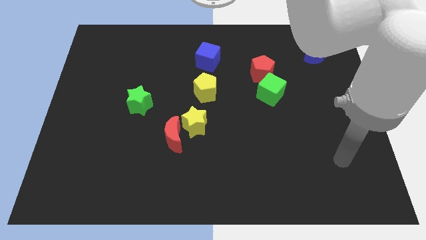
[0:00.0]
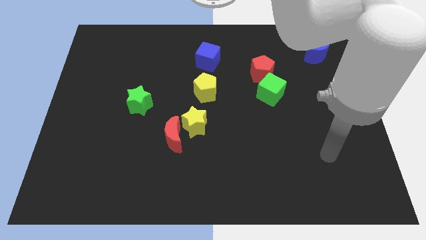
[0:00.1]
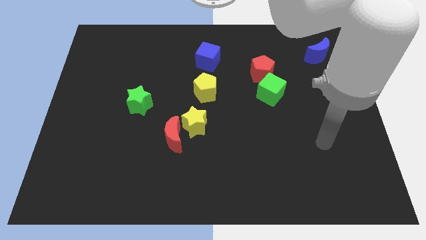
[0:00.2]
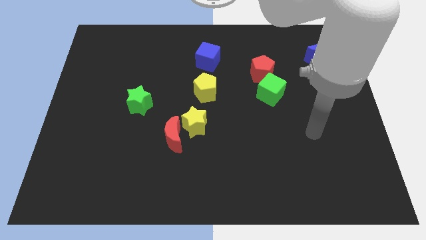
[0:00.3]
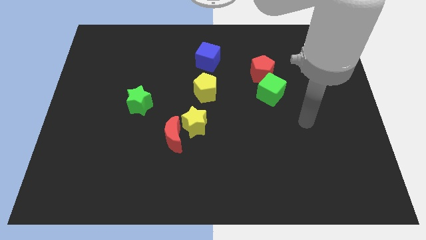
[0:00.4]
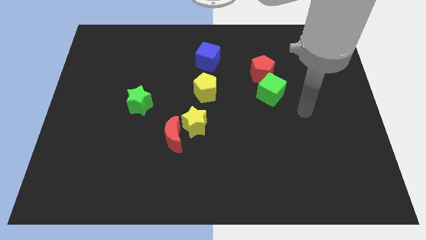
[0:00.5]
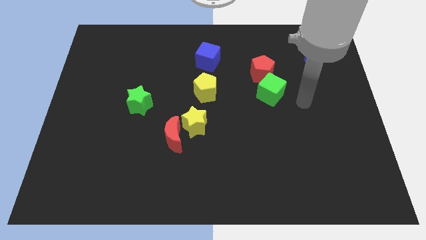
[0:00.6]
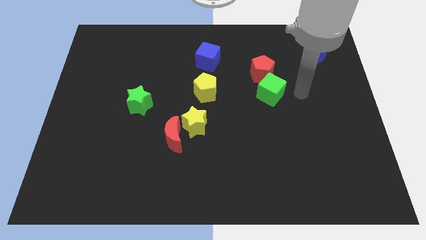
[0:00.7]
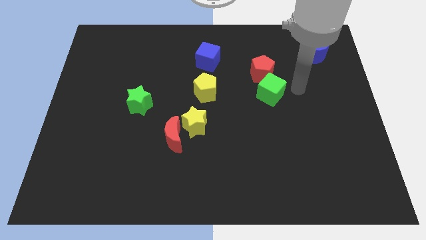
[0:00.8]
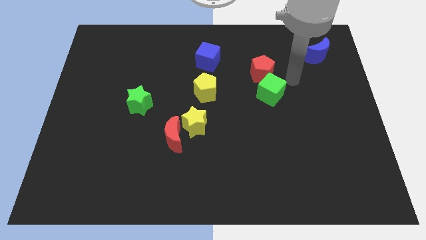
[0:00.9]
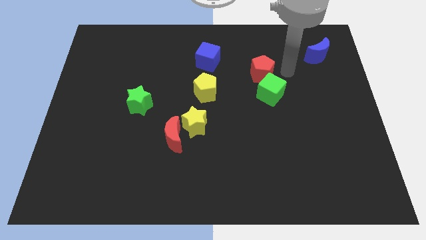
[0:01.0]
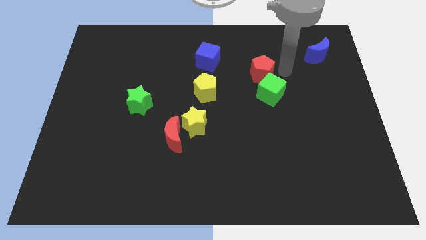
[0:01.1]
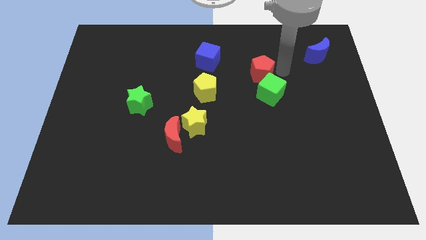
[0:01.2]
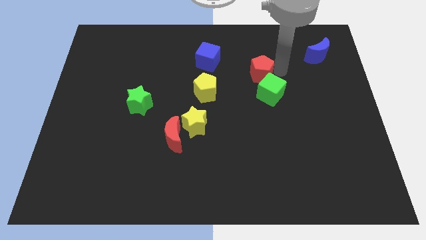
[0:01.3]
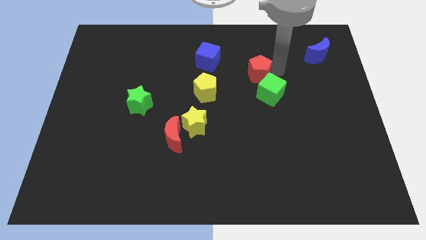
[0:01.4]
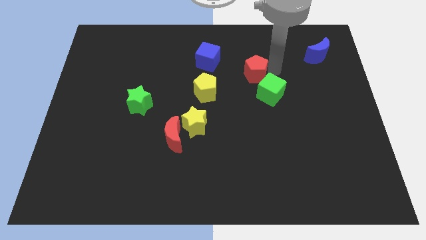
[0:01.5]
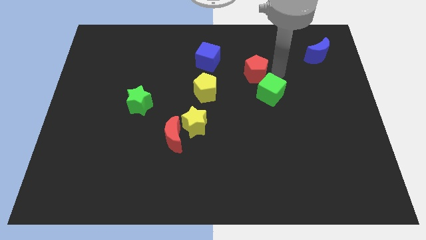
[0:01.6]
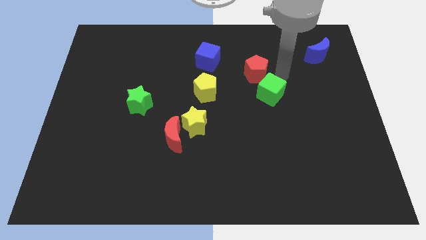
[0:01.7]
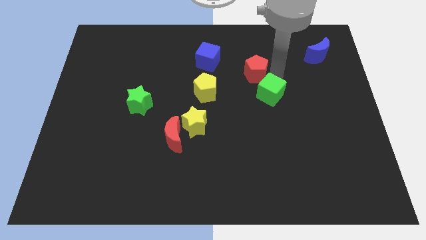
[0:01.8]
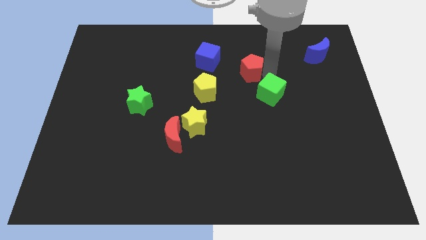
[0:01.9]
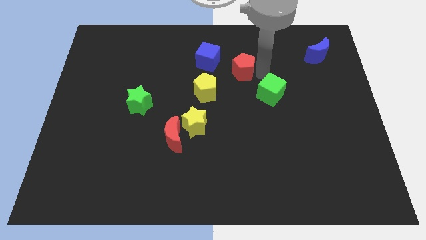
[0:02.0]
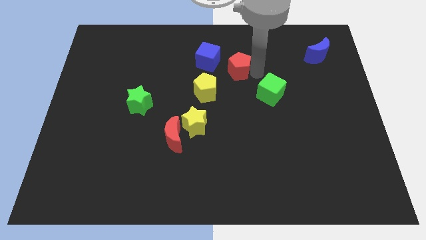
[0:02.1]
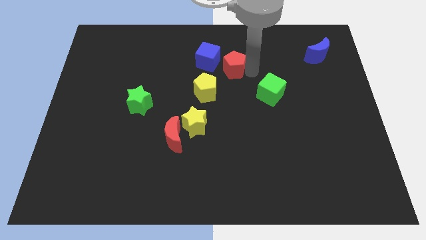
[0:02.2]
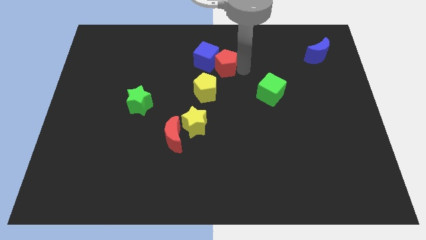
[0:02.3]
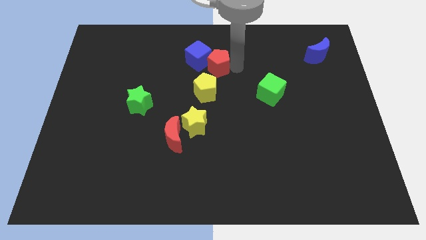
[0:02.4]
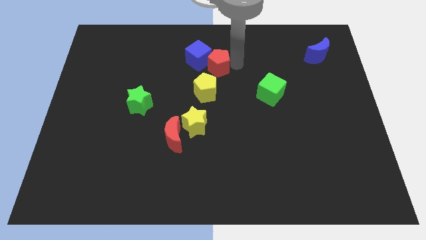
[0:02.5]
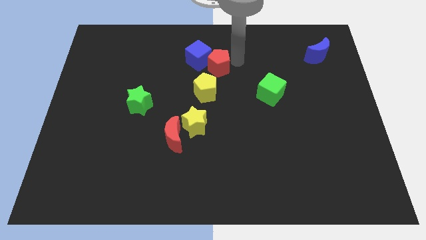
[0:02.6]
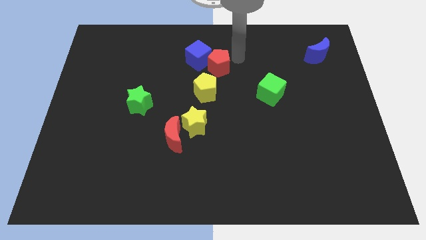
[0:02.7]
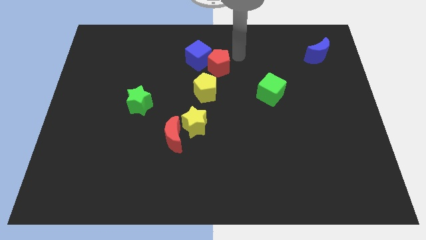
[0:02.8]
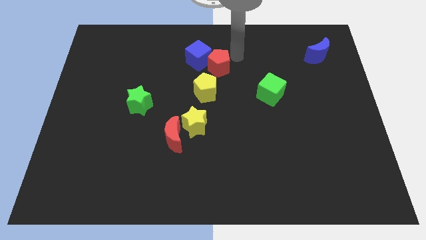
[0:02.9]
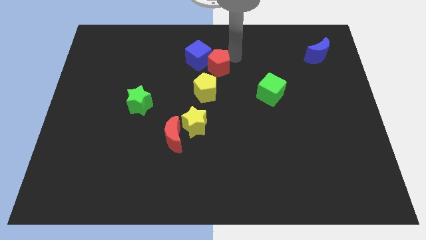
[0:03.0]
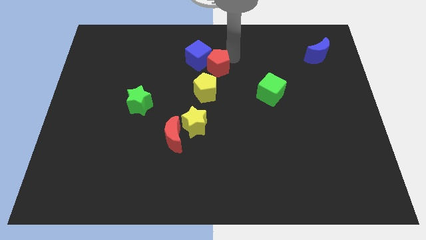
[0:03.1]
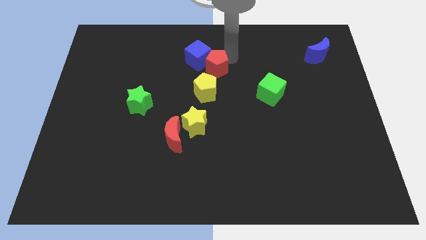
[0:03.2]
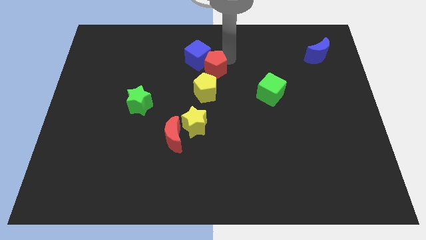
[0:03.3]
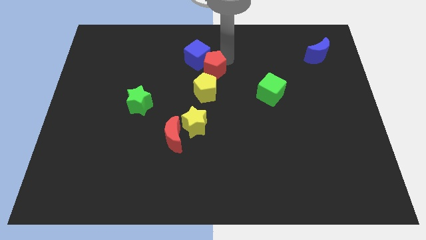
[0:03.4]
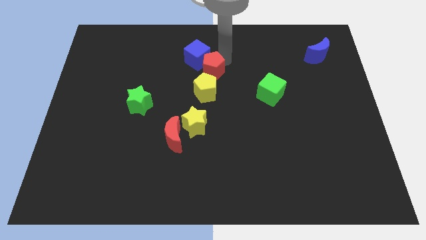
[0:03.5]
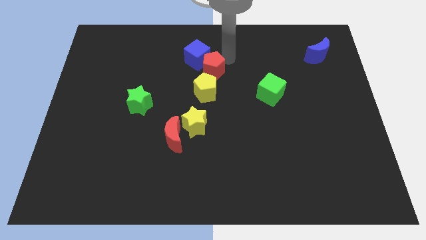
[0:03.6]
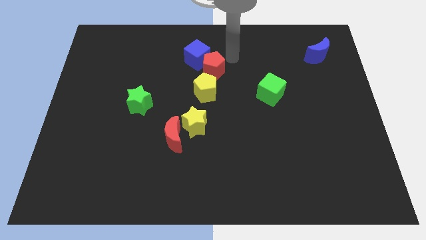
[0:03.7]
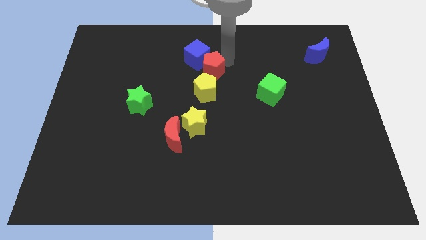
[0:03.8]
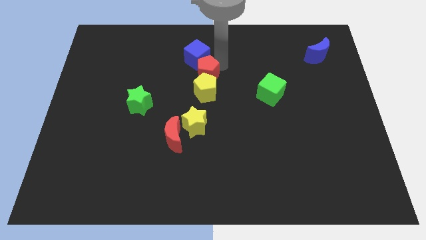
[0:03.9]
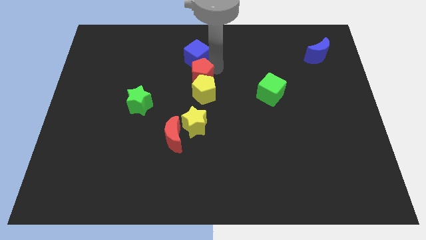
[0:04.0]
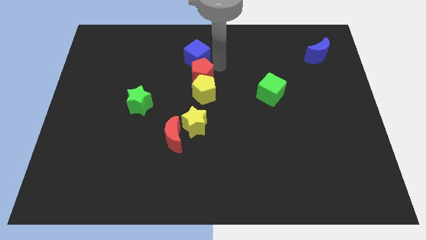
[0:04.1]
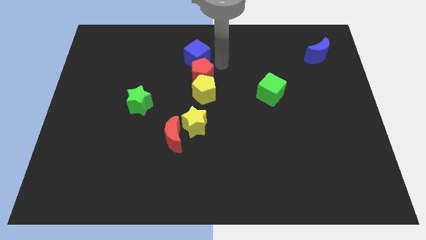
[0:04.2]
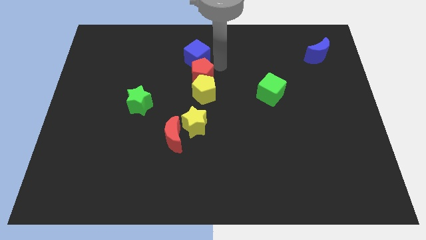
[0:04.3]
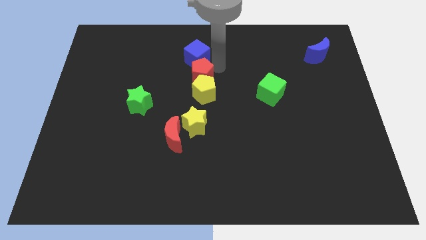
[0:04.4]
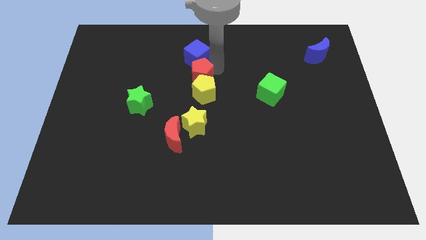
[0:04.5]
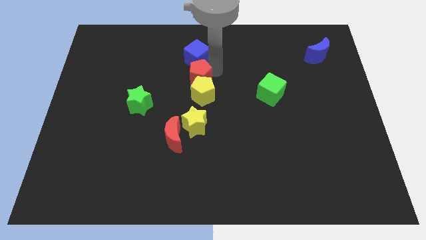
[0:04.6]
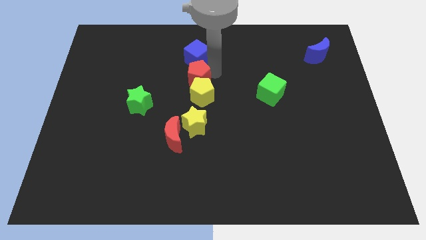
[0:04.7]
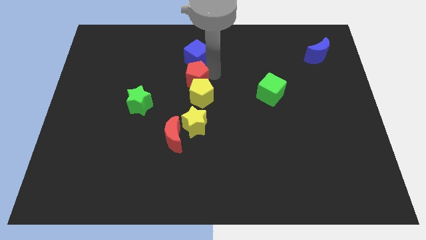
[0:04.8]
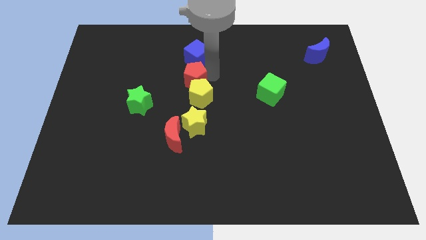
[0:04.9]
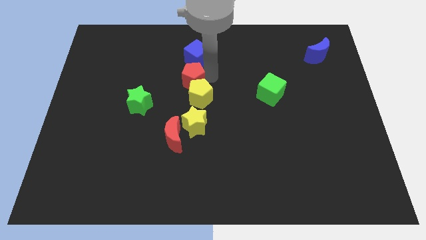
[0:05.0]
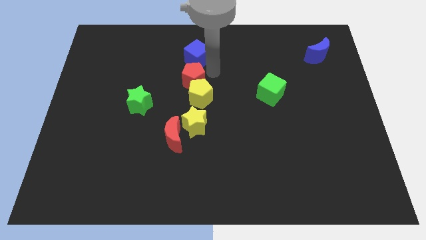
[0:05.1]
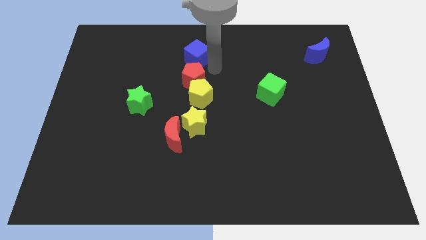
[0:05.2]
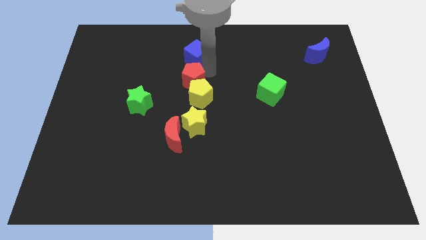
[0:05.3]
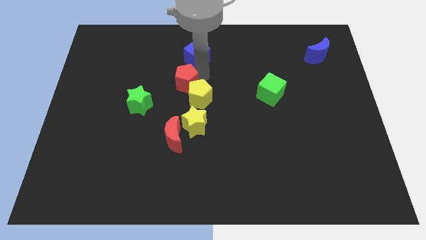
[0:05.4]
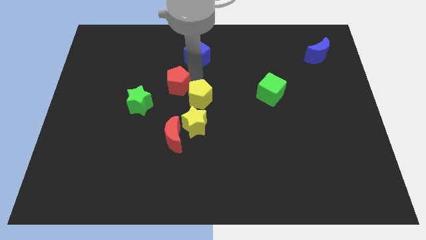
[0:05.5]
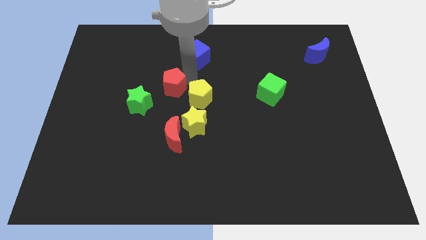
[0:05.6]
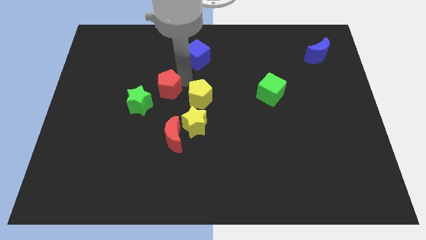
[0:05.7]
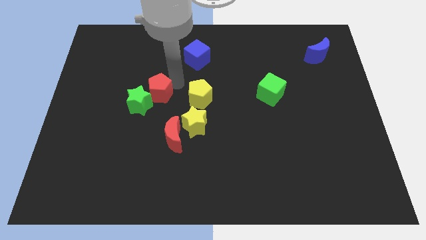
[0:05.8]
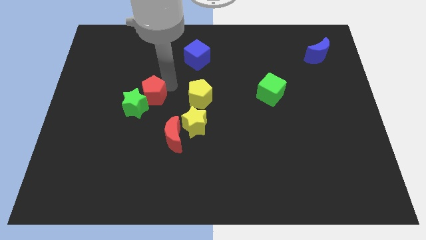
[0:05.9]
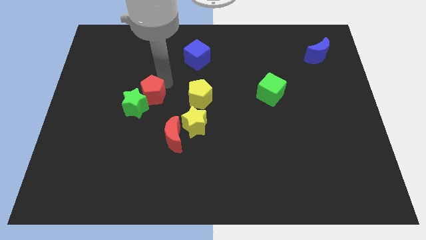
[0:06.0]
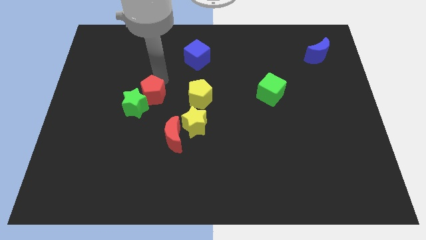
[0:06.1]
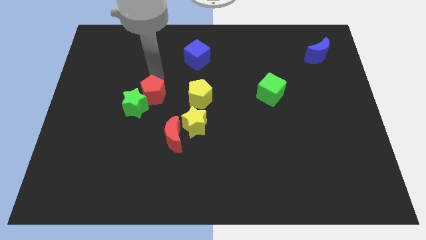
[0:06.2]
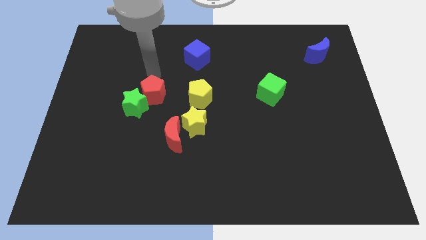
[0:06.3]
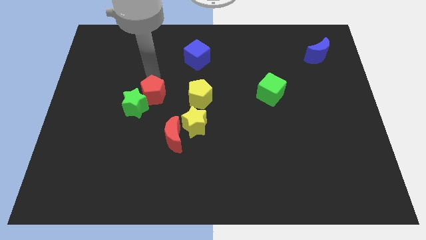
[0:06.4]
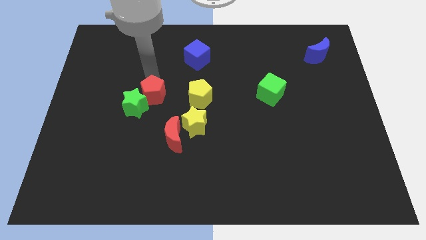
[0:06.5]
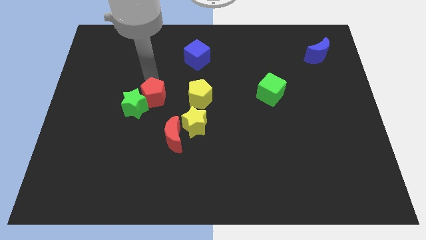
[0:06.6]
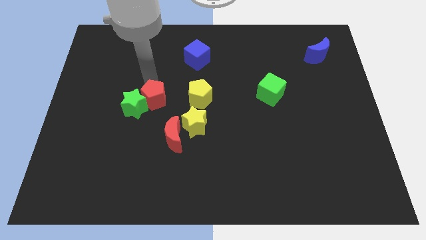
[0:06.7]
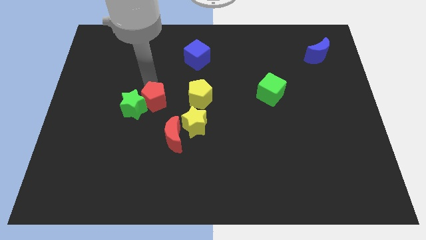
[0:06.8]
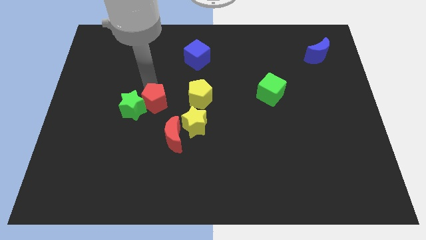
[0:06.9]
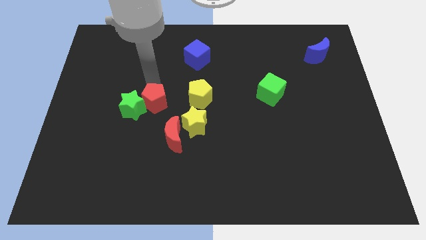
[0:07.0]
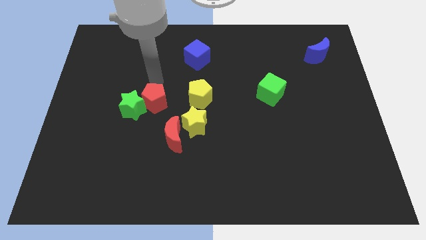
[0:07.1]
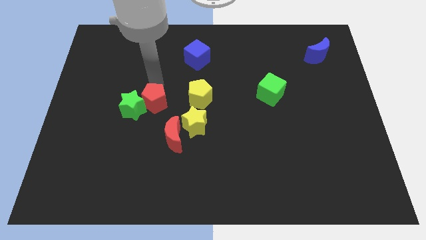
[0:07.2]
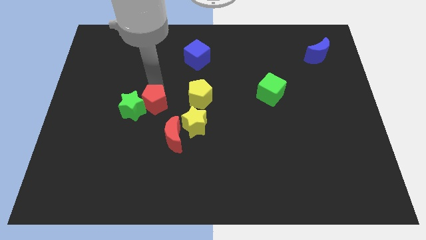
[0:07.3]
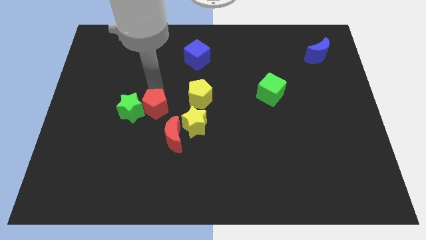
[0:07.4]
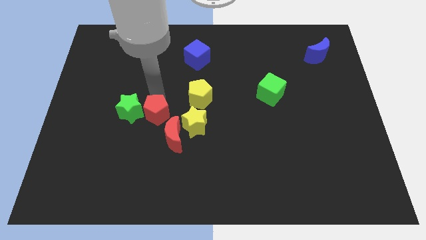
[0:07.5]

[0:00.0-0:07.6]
put the red pentagon left of the yellow star
